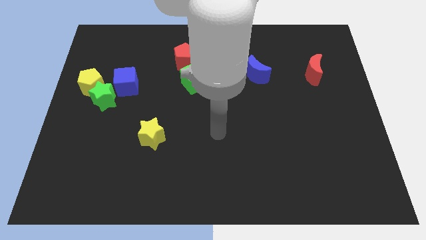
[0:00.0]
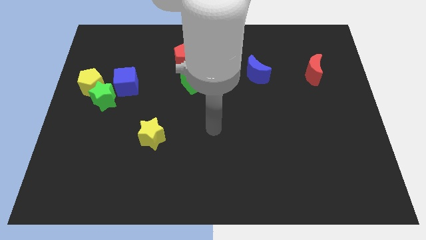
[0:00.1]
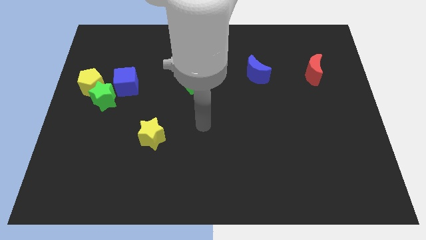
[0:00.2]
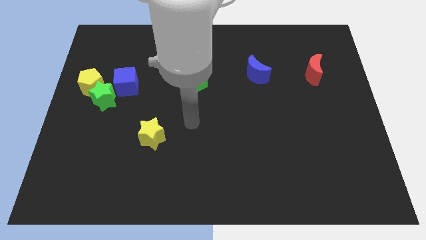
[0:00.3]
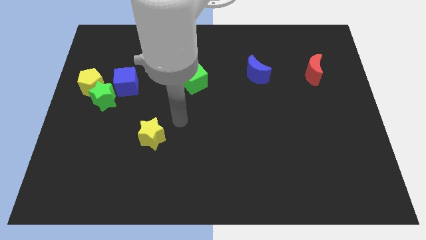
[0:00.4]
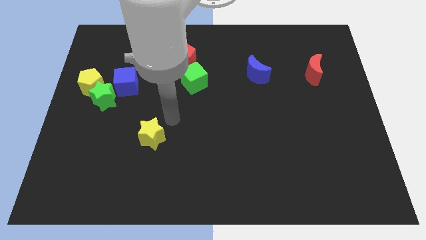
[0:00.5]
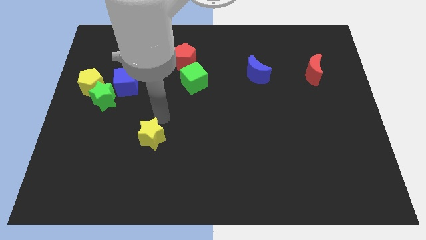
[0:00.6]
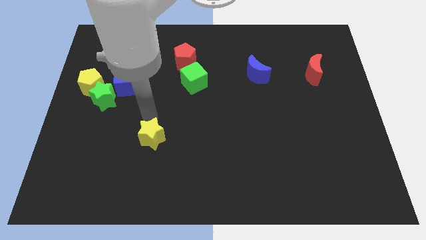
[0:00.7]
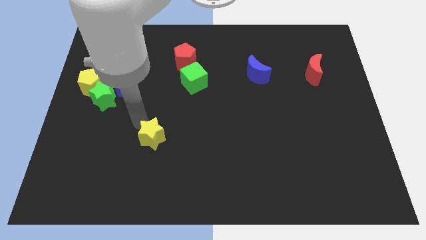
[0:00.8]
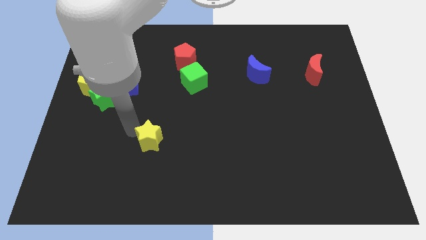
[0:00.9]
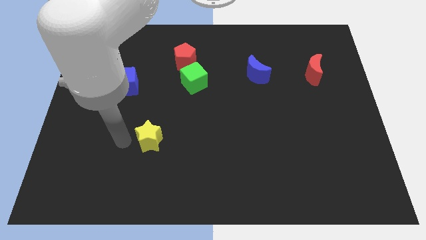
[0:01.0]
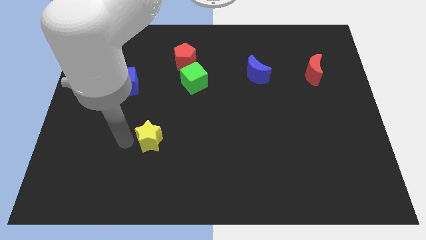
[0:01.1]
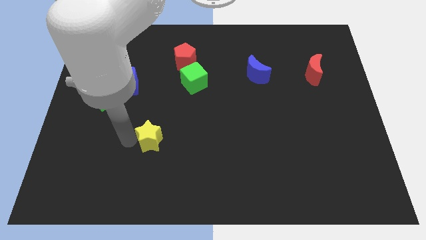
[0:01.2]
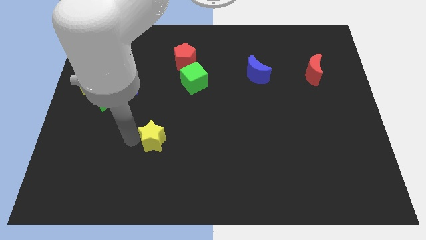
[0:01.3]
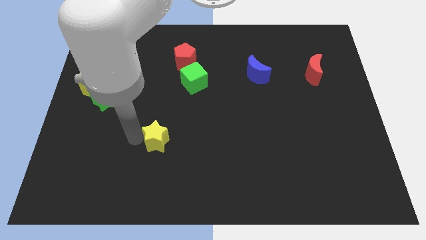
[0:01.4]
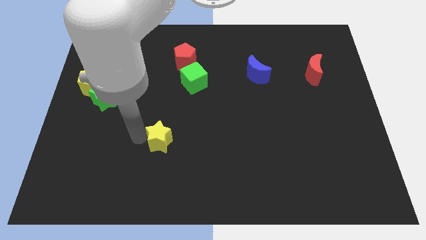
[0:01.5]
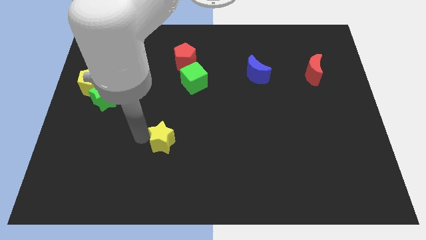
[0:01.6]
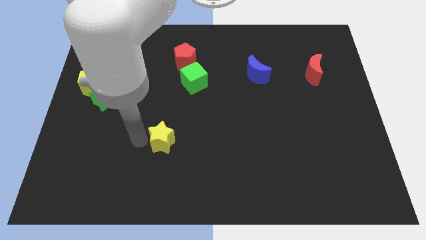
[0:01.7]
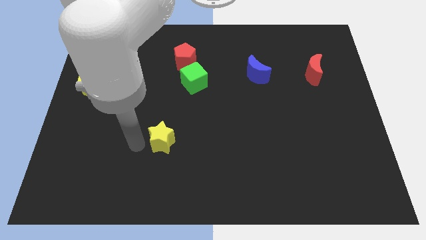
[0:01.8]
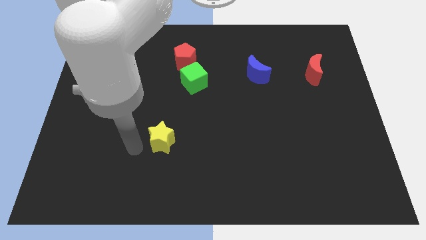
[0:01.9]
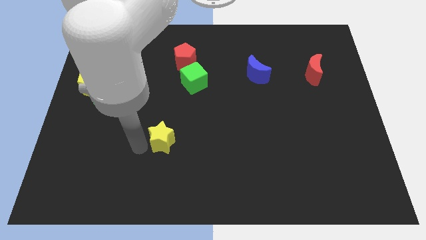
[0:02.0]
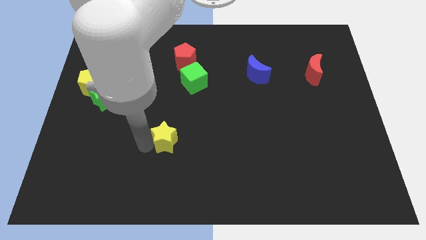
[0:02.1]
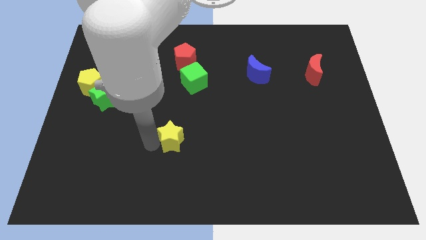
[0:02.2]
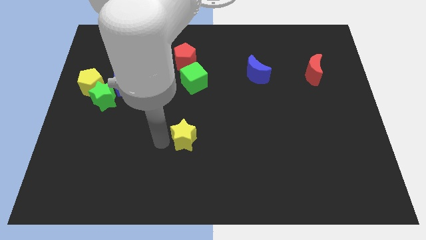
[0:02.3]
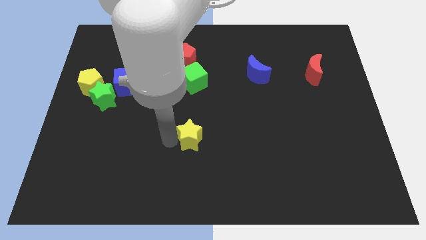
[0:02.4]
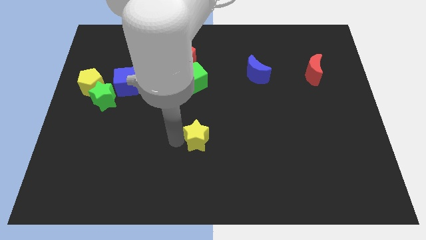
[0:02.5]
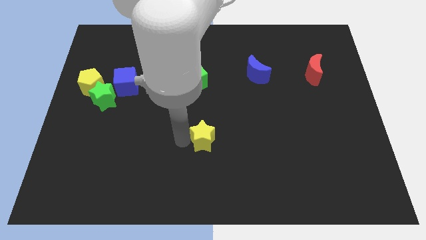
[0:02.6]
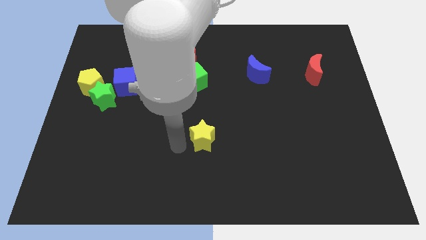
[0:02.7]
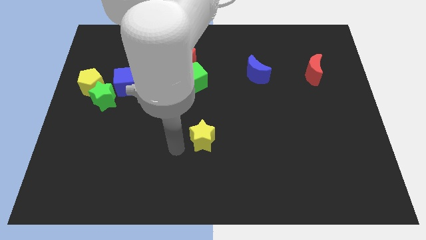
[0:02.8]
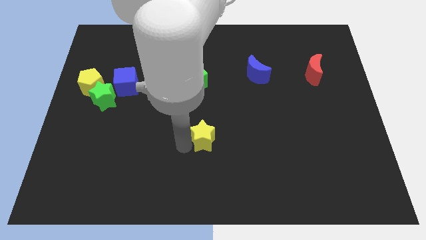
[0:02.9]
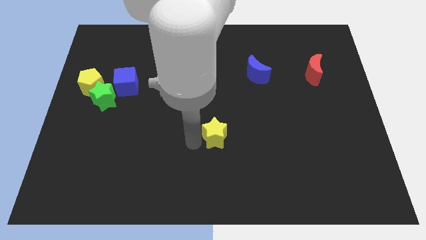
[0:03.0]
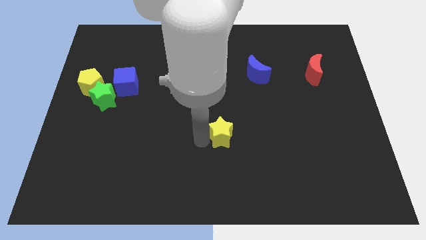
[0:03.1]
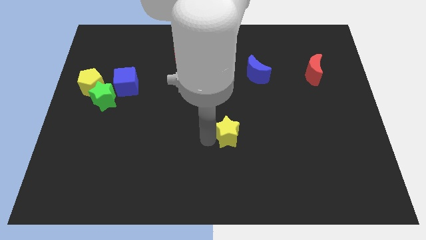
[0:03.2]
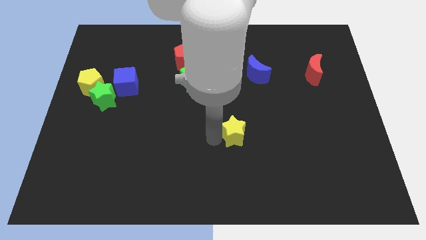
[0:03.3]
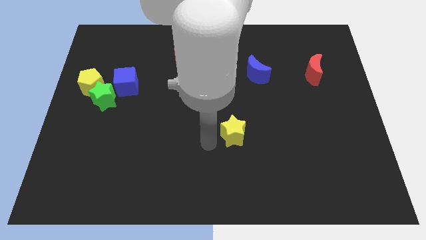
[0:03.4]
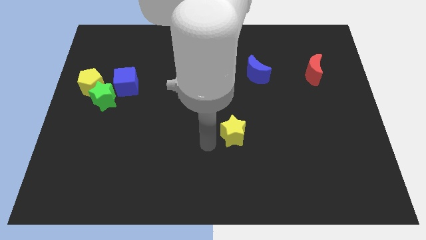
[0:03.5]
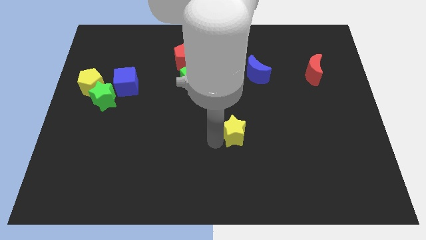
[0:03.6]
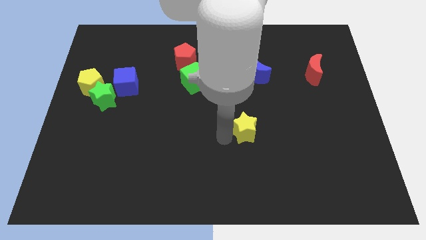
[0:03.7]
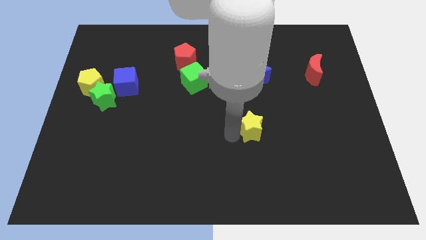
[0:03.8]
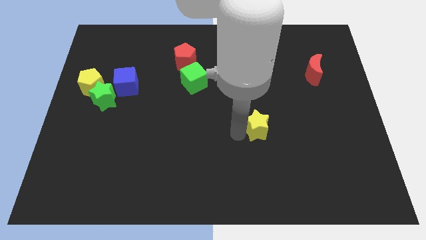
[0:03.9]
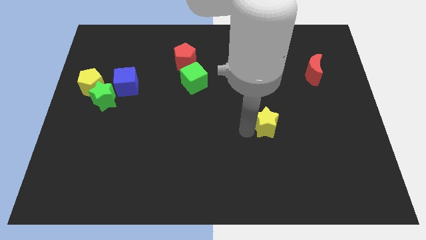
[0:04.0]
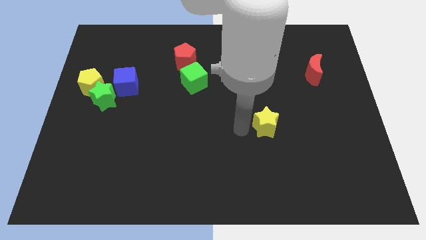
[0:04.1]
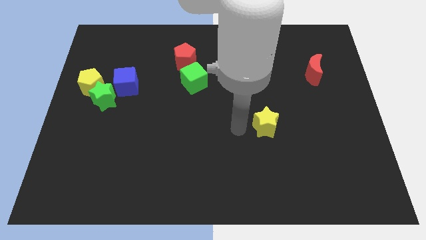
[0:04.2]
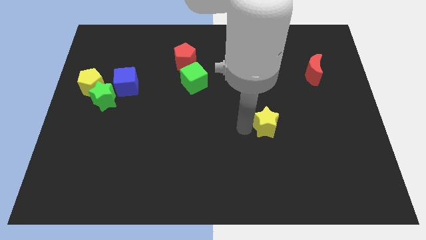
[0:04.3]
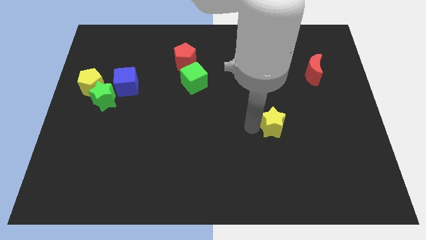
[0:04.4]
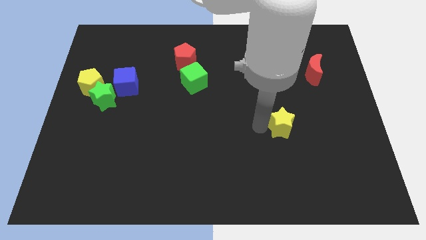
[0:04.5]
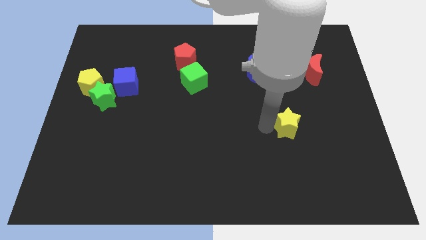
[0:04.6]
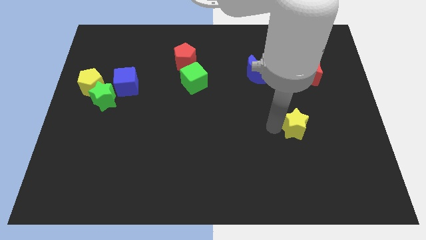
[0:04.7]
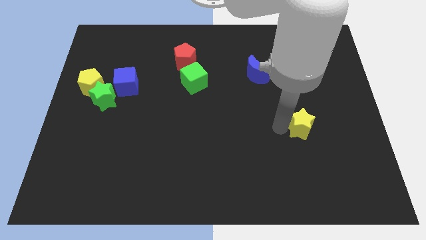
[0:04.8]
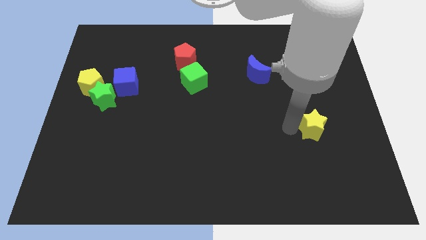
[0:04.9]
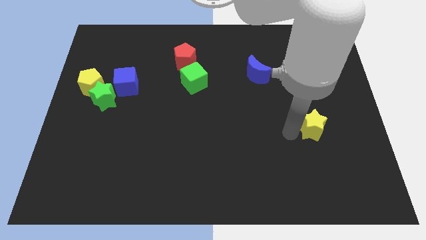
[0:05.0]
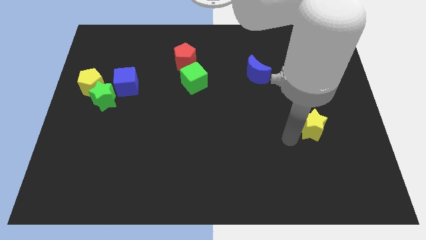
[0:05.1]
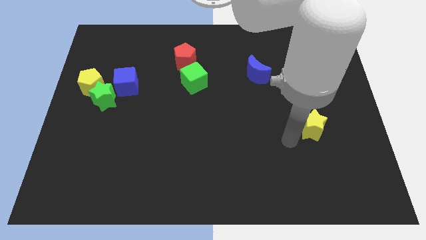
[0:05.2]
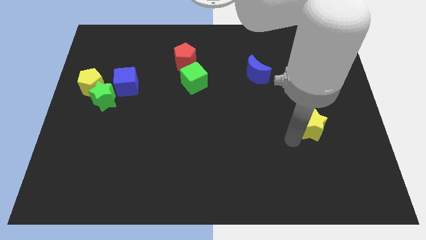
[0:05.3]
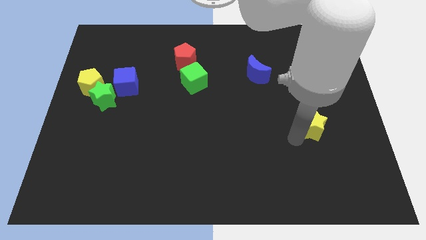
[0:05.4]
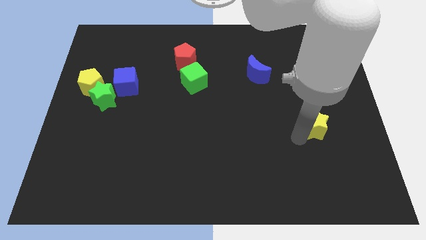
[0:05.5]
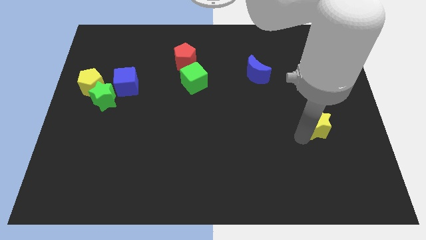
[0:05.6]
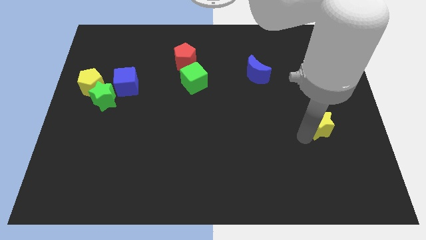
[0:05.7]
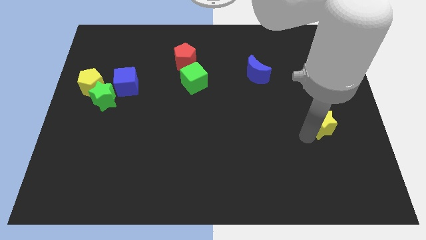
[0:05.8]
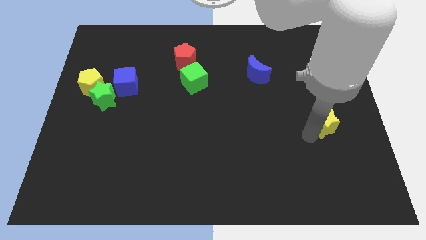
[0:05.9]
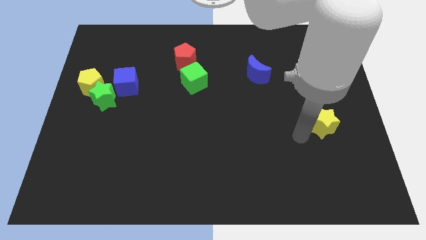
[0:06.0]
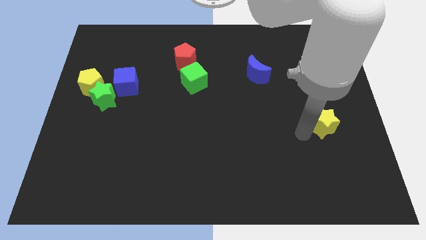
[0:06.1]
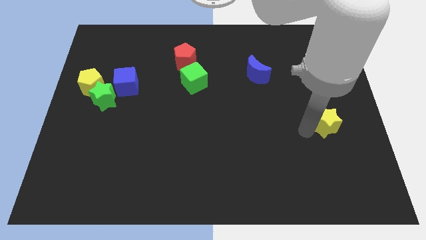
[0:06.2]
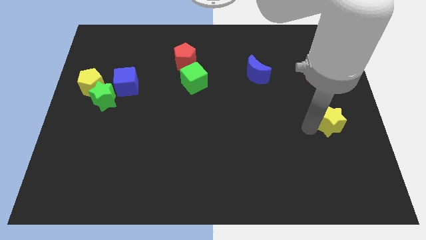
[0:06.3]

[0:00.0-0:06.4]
slide the yellow star to the right side

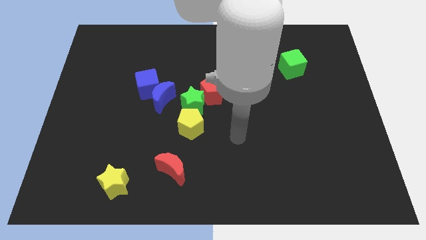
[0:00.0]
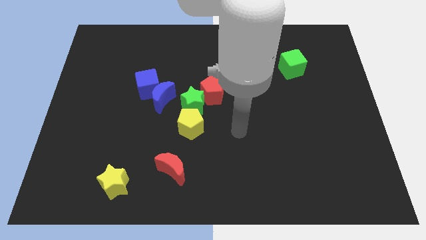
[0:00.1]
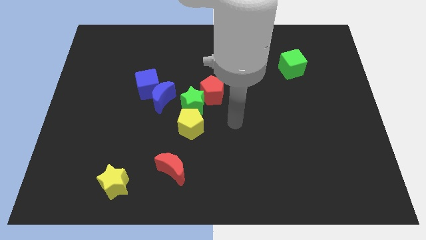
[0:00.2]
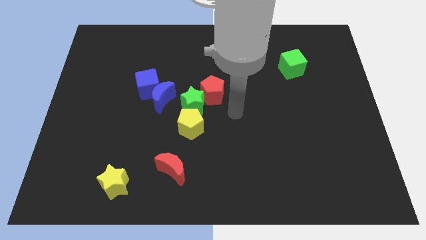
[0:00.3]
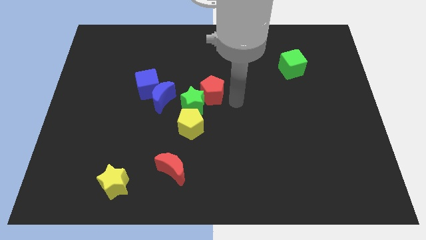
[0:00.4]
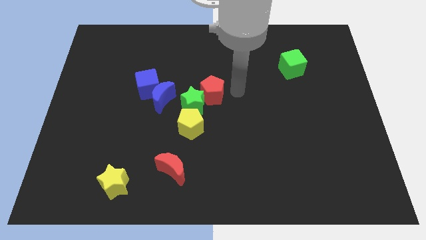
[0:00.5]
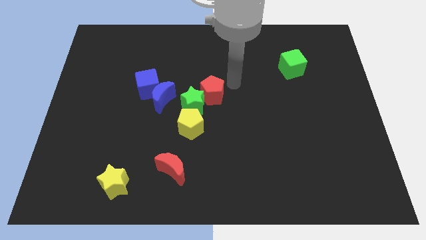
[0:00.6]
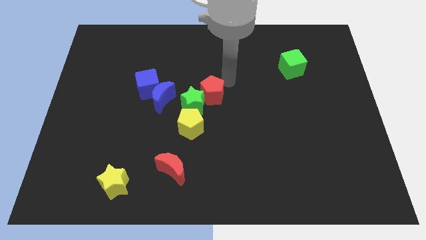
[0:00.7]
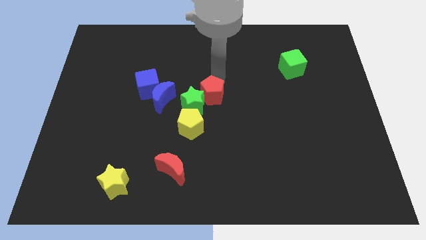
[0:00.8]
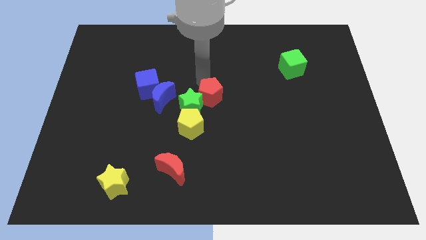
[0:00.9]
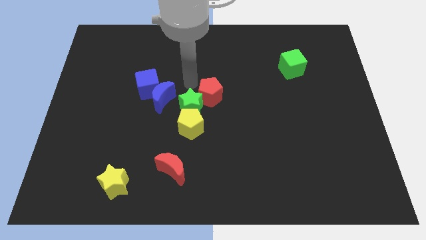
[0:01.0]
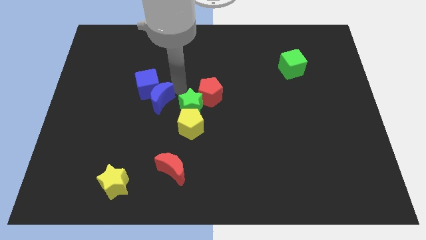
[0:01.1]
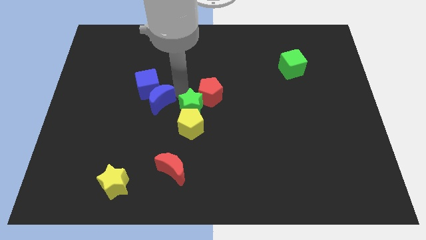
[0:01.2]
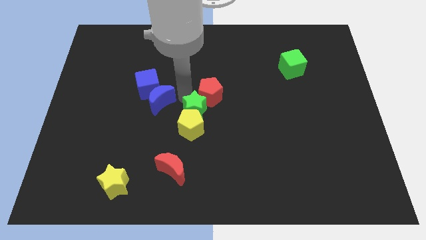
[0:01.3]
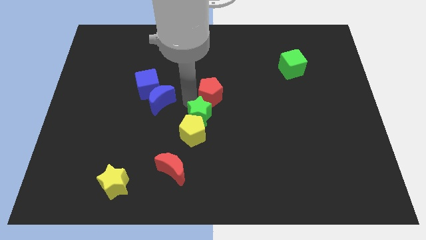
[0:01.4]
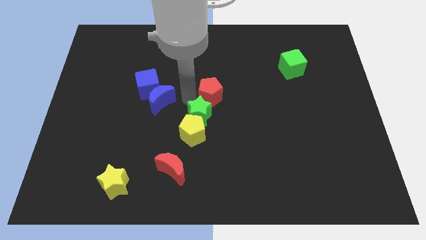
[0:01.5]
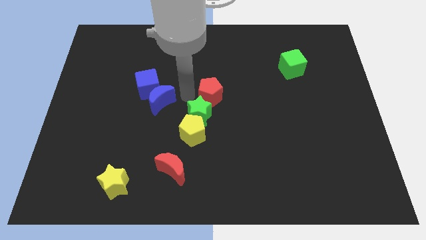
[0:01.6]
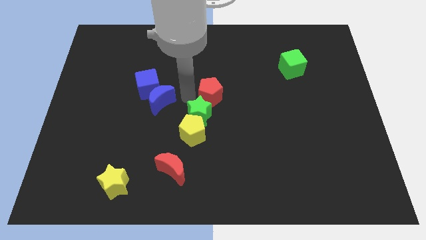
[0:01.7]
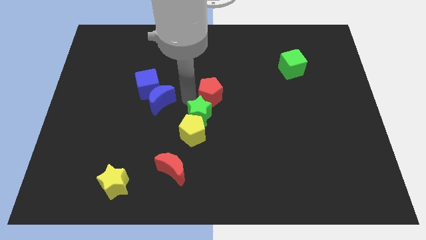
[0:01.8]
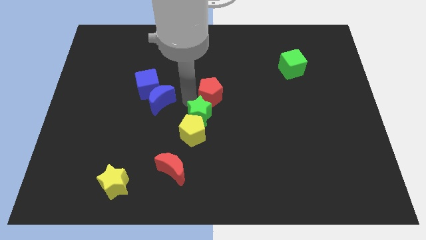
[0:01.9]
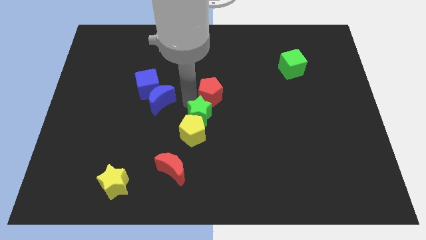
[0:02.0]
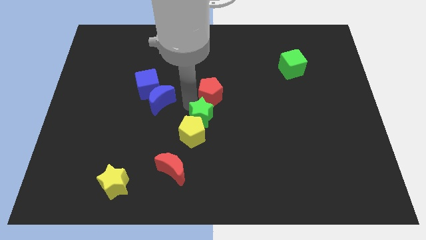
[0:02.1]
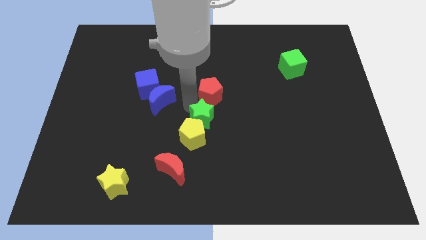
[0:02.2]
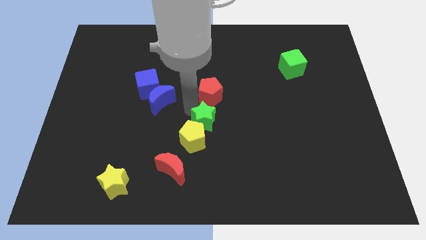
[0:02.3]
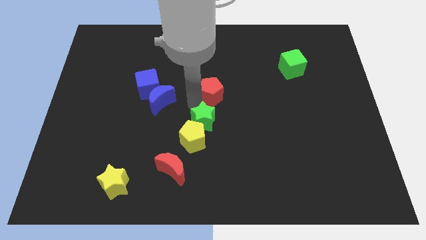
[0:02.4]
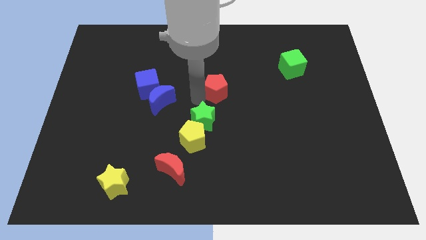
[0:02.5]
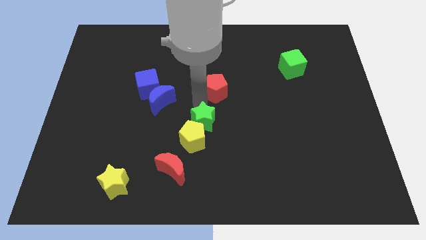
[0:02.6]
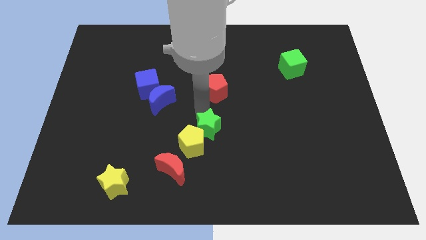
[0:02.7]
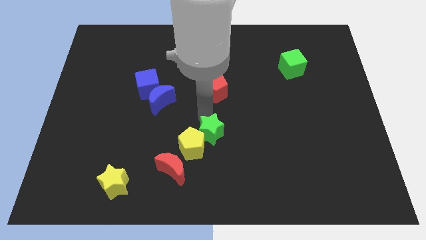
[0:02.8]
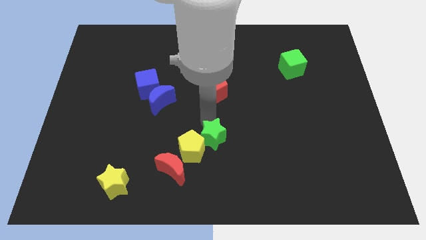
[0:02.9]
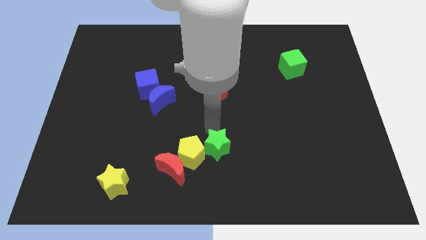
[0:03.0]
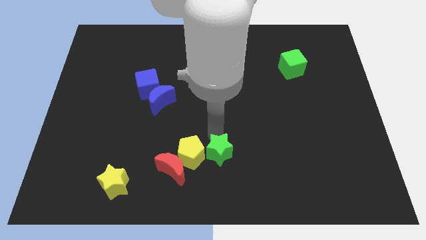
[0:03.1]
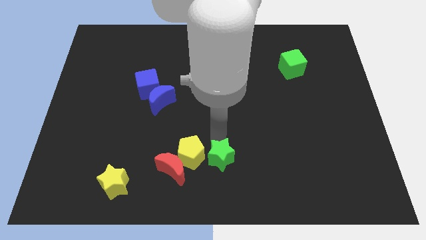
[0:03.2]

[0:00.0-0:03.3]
move the green star to the bottom side
